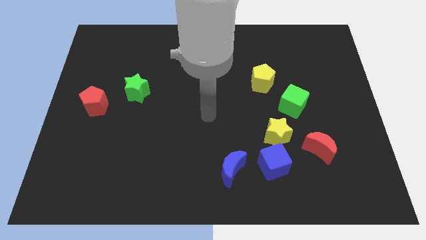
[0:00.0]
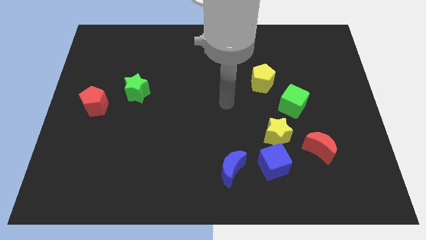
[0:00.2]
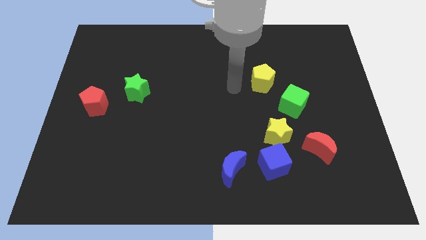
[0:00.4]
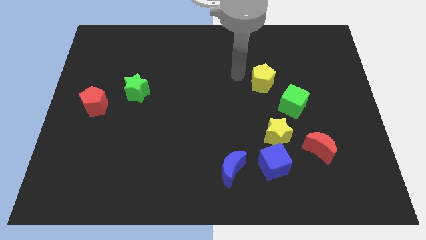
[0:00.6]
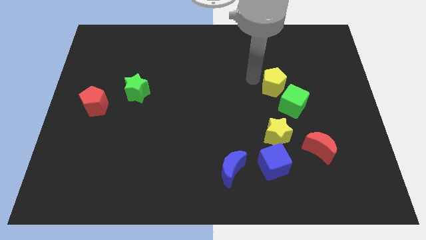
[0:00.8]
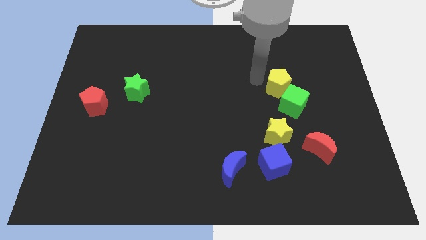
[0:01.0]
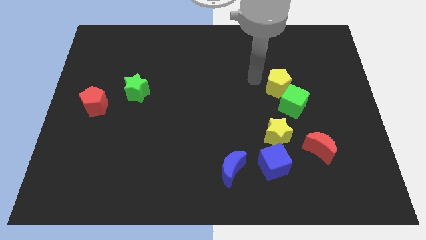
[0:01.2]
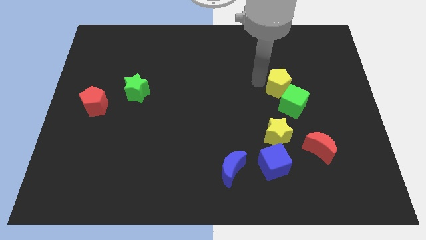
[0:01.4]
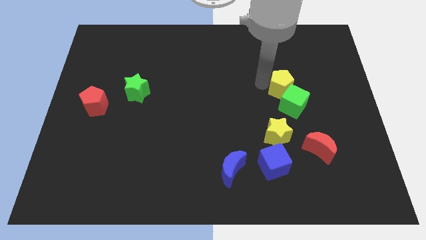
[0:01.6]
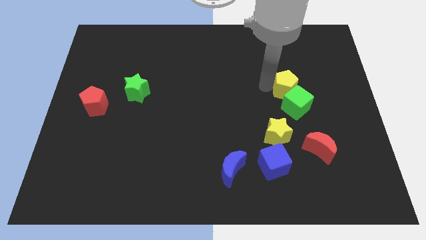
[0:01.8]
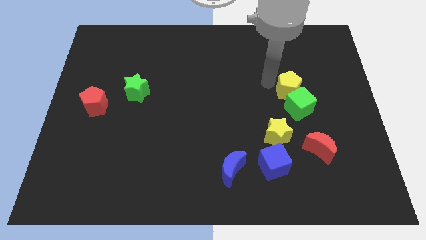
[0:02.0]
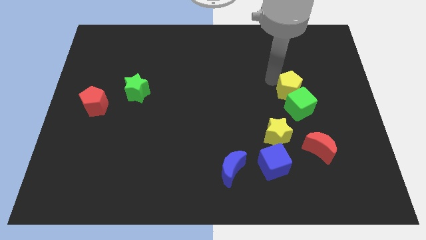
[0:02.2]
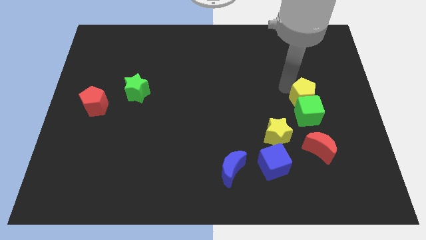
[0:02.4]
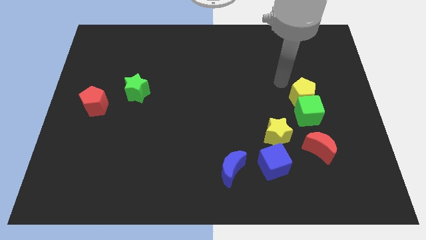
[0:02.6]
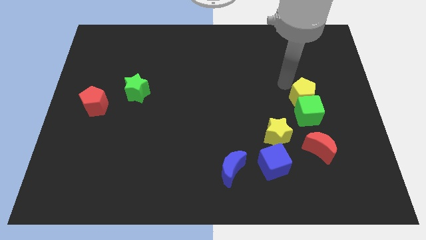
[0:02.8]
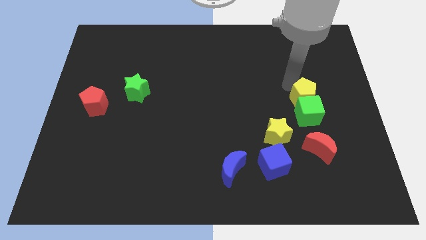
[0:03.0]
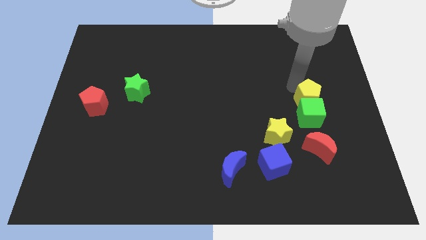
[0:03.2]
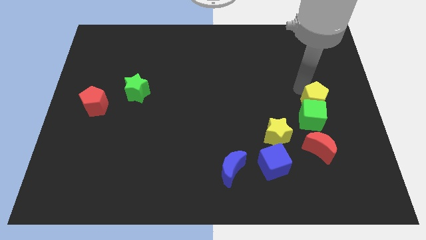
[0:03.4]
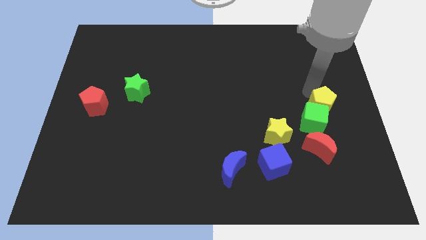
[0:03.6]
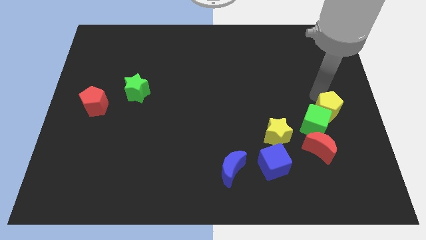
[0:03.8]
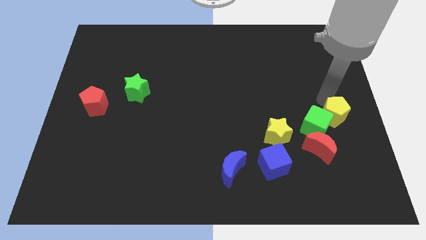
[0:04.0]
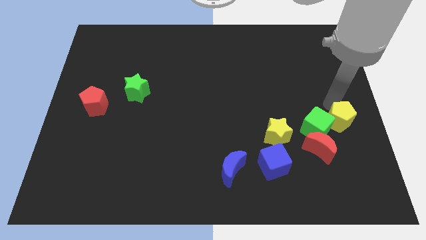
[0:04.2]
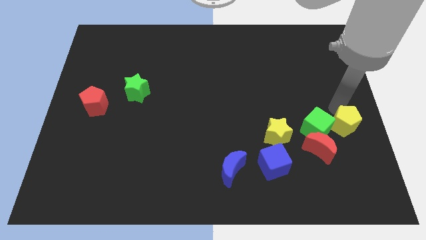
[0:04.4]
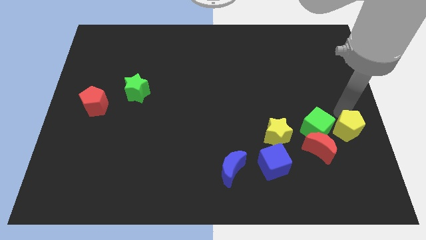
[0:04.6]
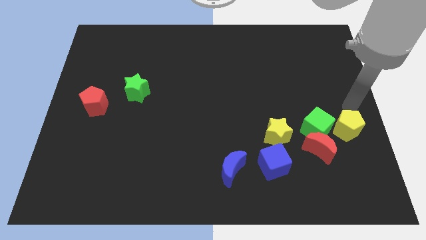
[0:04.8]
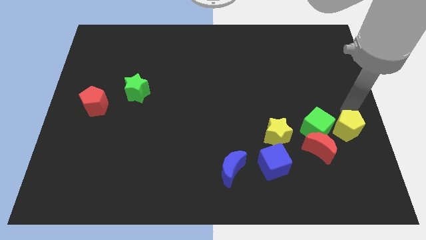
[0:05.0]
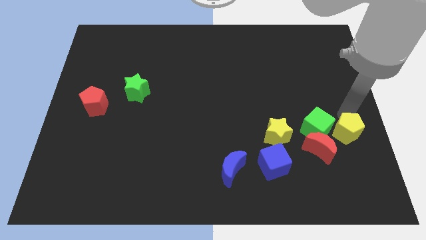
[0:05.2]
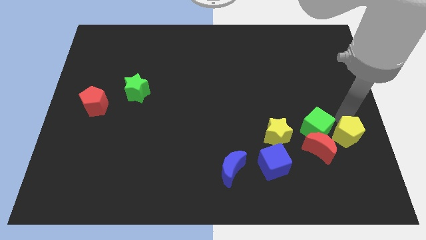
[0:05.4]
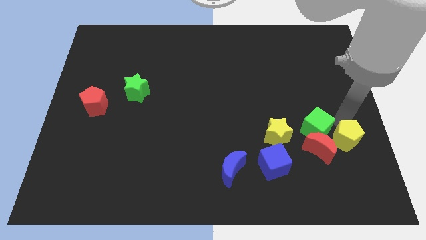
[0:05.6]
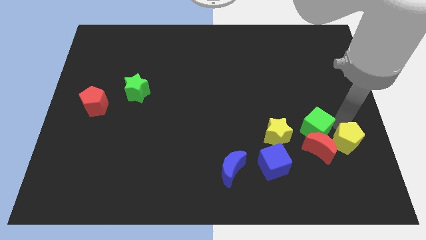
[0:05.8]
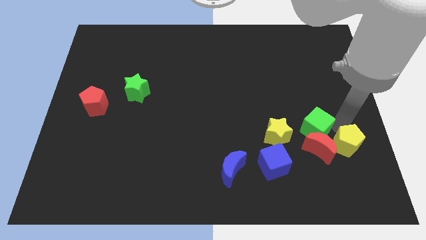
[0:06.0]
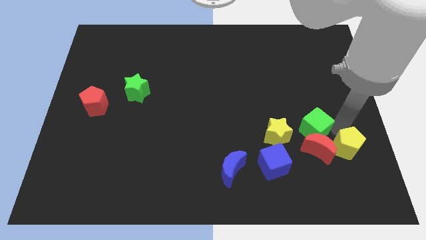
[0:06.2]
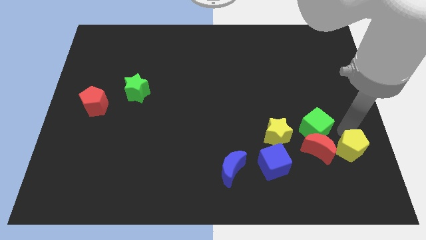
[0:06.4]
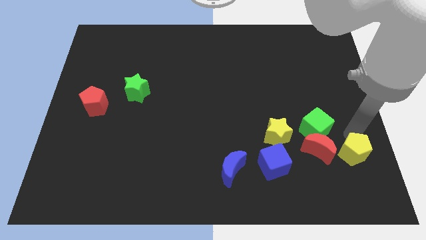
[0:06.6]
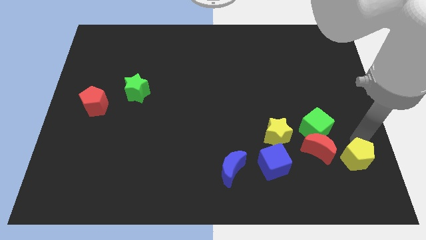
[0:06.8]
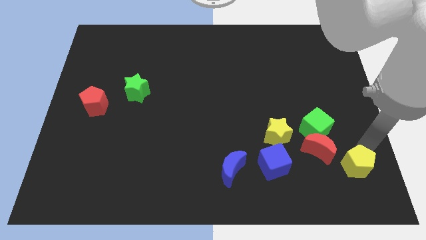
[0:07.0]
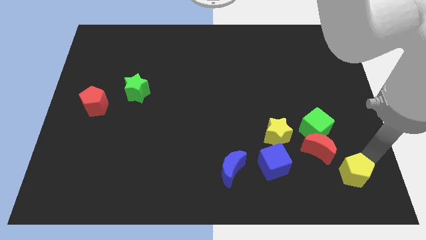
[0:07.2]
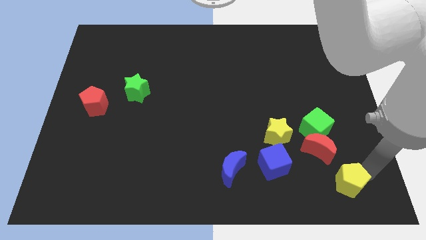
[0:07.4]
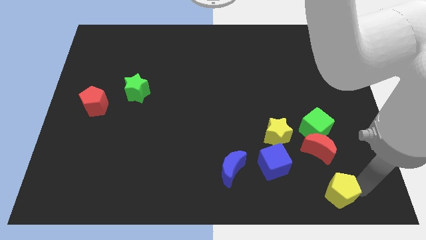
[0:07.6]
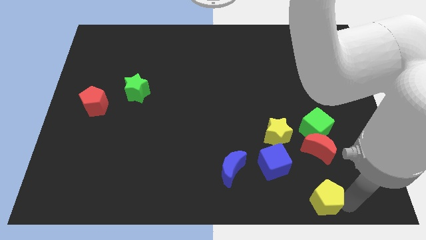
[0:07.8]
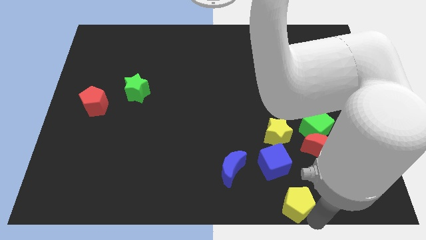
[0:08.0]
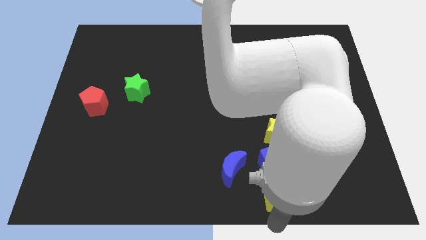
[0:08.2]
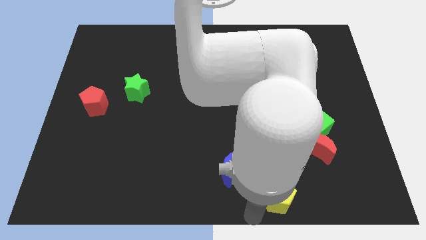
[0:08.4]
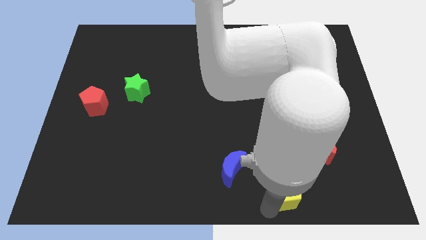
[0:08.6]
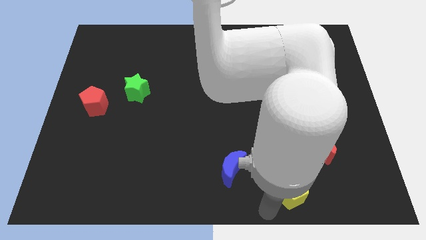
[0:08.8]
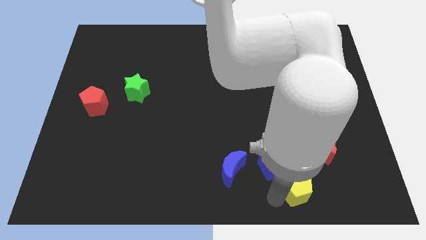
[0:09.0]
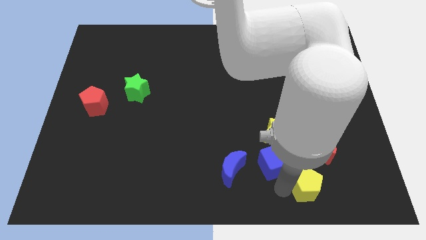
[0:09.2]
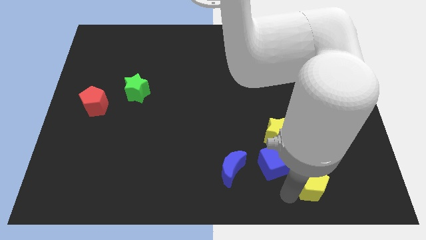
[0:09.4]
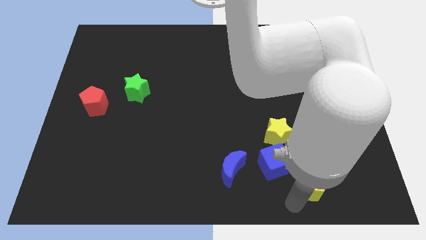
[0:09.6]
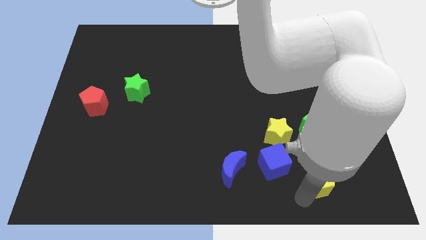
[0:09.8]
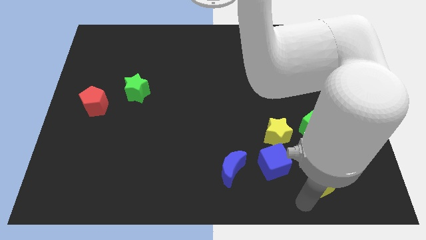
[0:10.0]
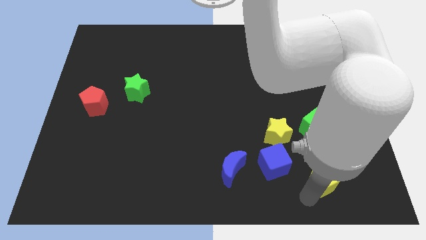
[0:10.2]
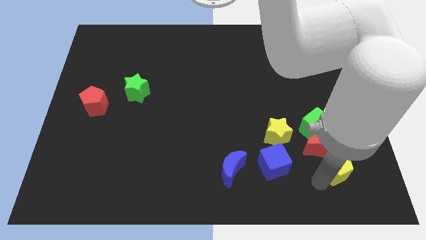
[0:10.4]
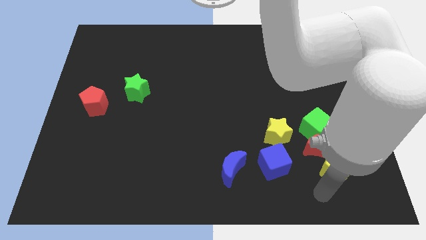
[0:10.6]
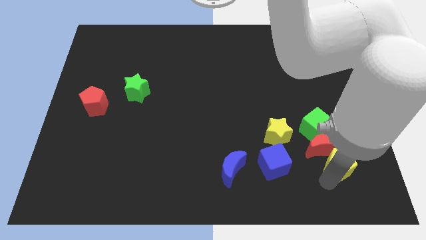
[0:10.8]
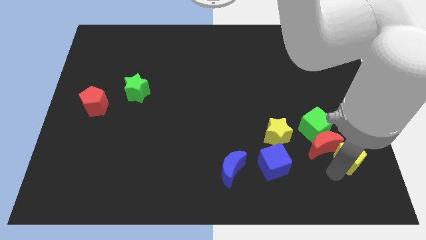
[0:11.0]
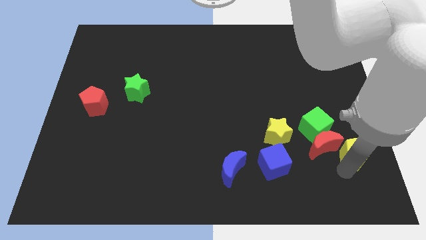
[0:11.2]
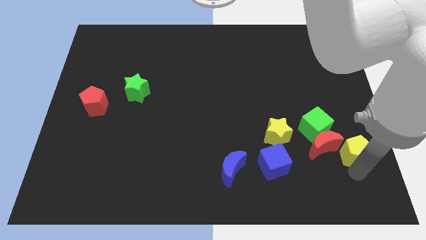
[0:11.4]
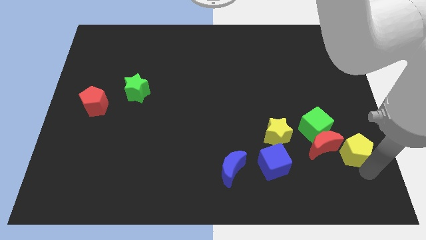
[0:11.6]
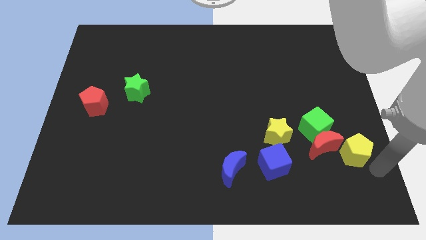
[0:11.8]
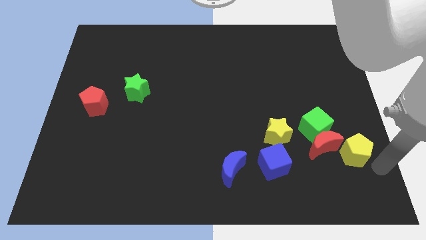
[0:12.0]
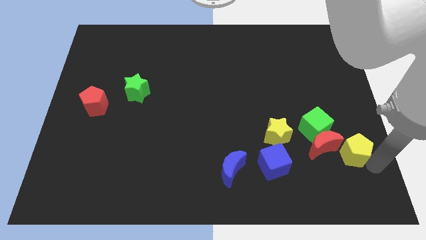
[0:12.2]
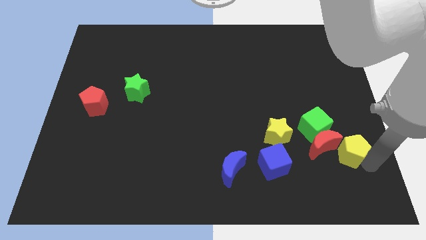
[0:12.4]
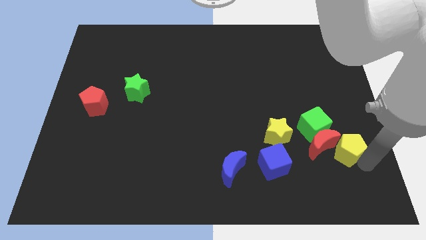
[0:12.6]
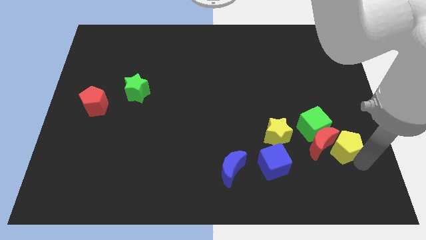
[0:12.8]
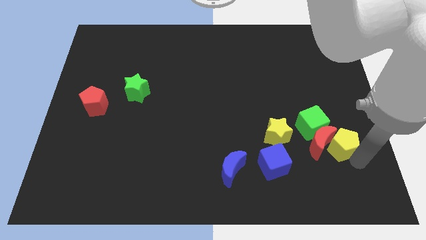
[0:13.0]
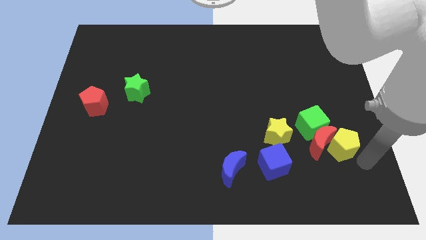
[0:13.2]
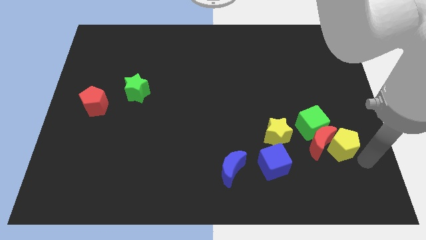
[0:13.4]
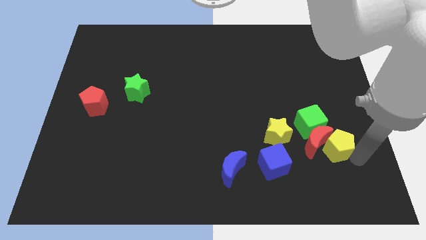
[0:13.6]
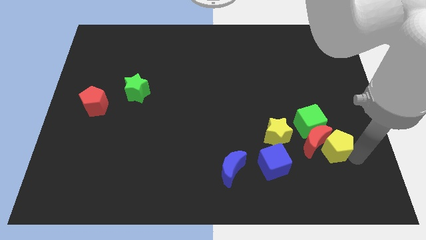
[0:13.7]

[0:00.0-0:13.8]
put the yellow pentagon diagonally down and to the right of the green cube

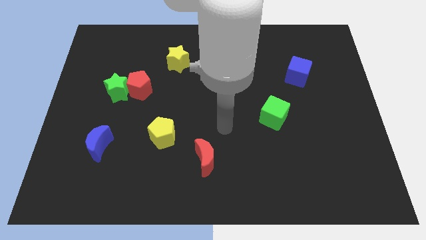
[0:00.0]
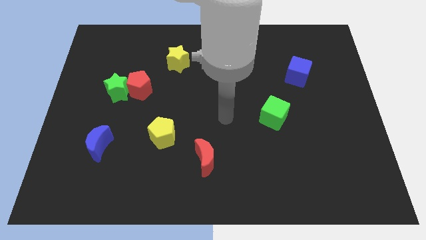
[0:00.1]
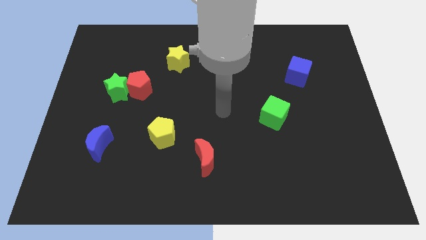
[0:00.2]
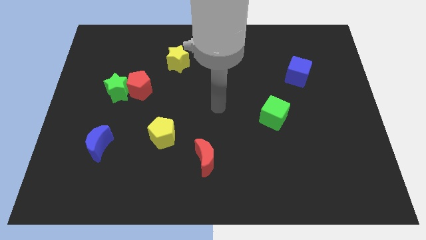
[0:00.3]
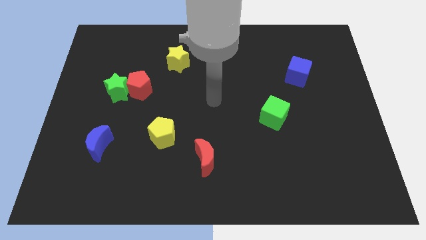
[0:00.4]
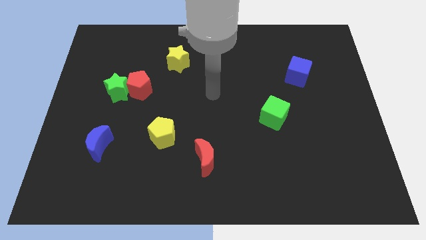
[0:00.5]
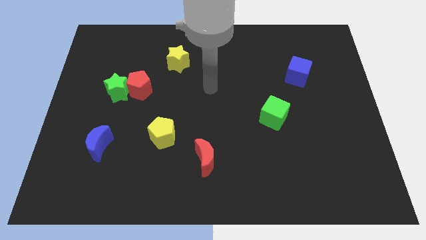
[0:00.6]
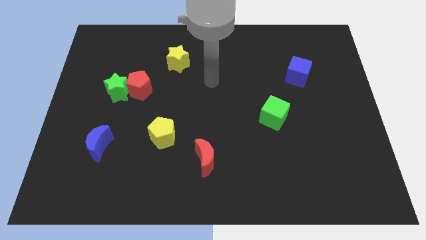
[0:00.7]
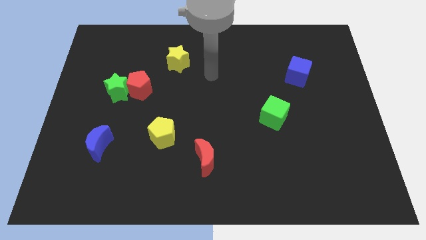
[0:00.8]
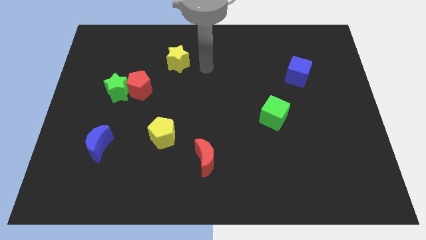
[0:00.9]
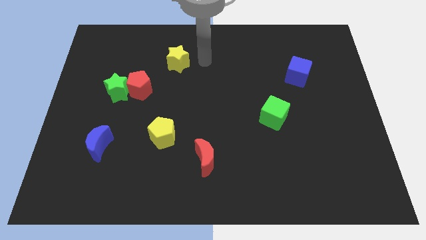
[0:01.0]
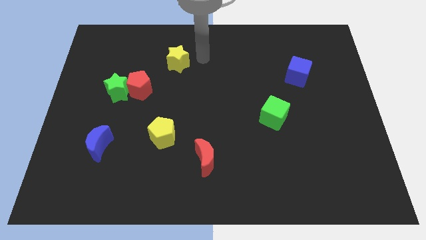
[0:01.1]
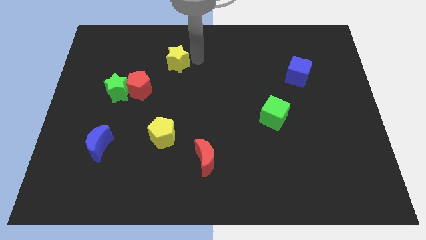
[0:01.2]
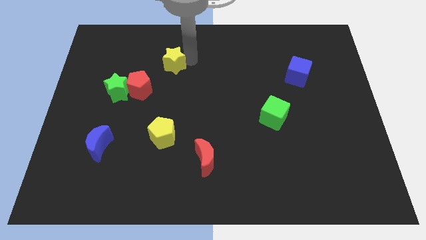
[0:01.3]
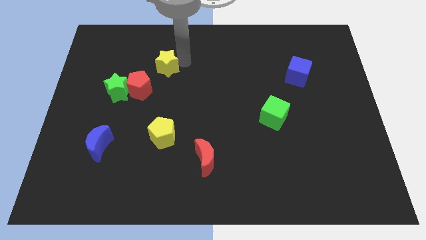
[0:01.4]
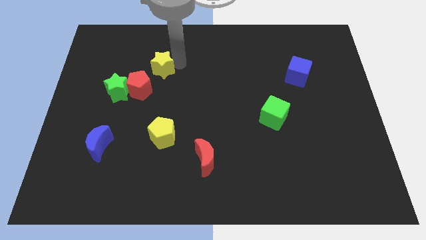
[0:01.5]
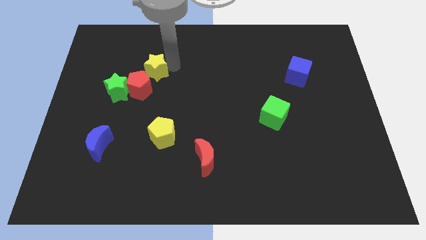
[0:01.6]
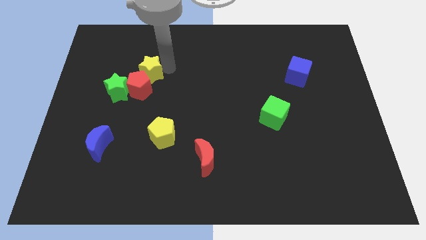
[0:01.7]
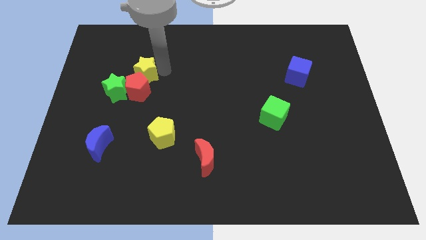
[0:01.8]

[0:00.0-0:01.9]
push the yellow star diagonally up and to the left of the red pentagon
